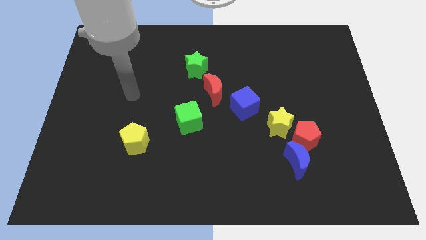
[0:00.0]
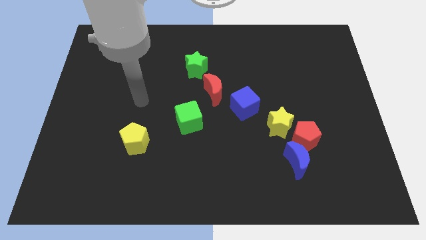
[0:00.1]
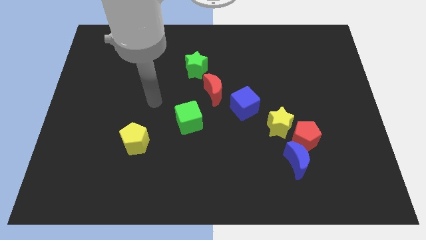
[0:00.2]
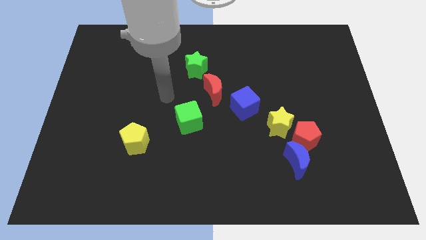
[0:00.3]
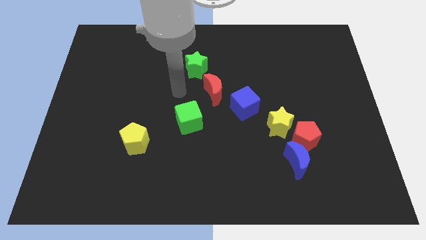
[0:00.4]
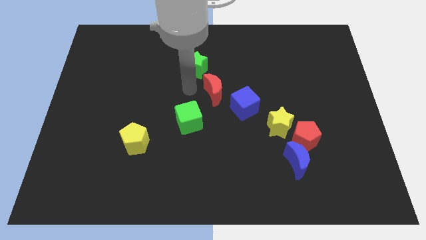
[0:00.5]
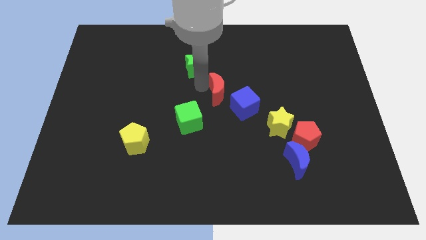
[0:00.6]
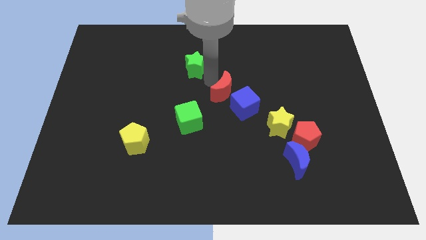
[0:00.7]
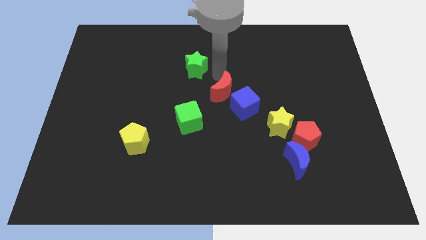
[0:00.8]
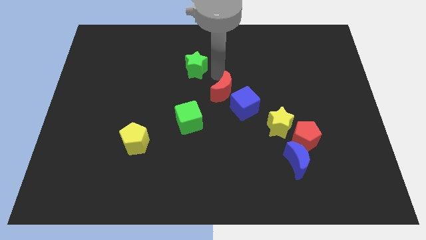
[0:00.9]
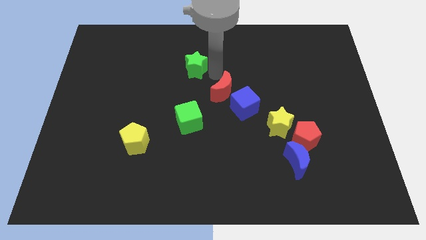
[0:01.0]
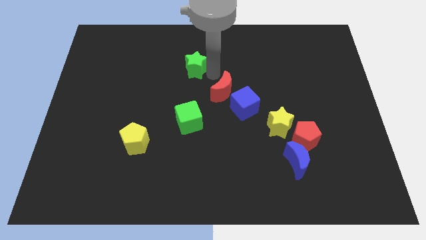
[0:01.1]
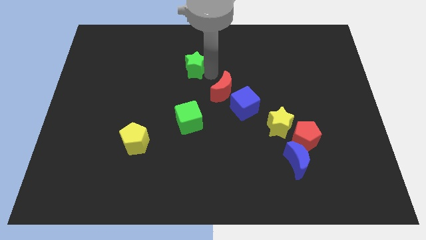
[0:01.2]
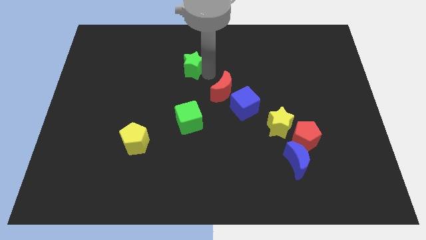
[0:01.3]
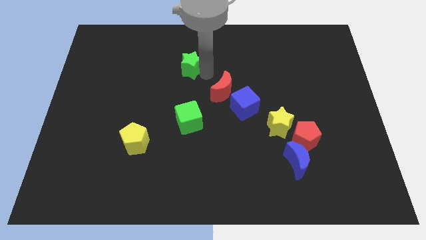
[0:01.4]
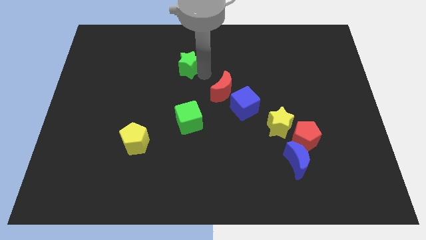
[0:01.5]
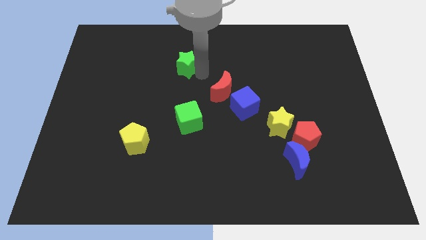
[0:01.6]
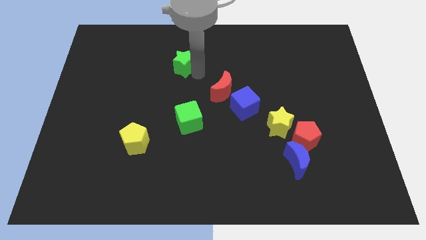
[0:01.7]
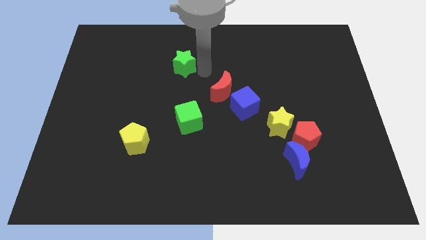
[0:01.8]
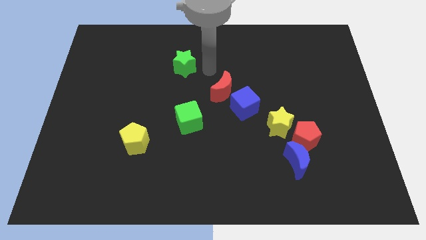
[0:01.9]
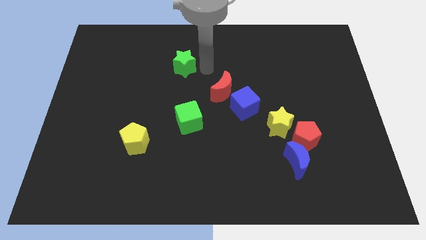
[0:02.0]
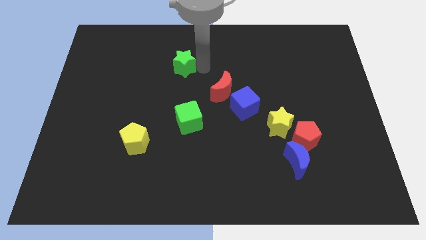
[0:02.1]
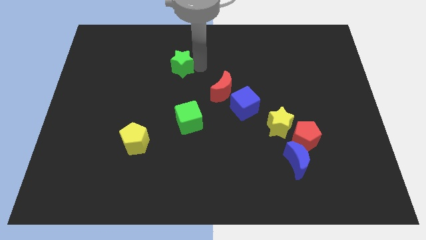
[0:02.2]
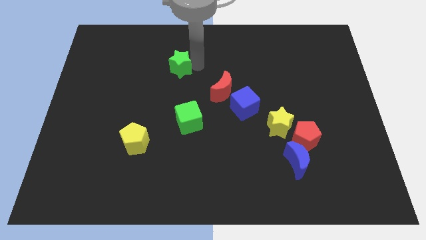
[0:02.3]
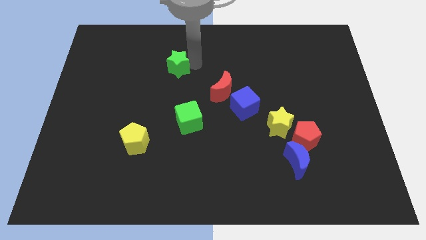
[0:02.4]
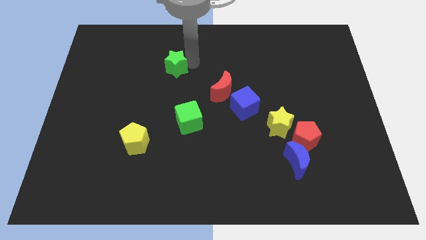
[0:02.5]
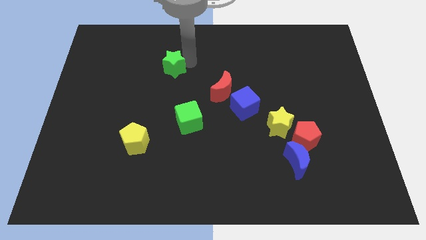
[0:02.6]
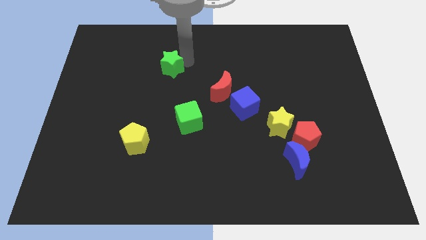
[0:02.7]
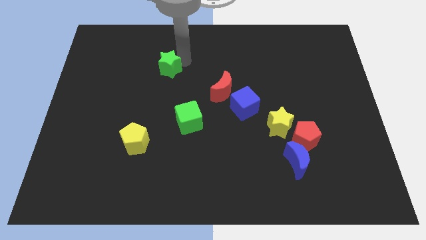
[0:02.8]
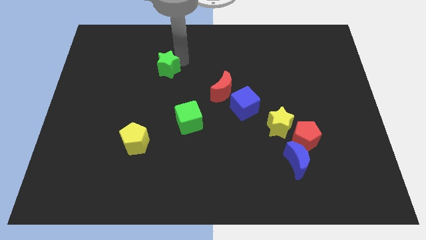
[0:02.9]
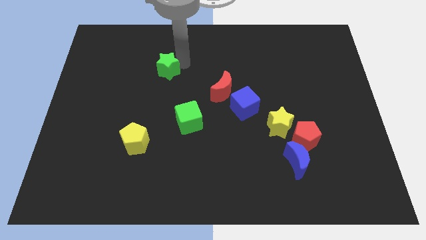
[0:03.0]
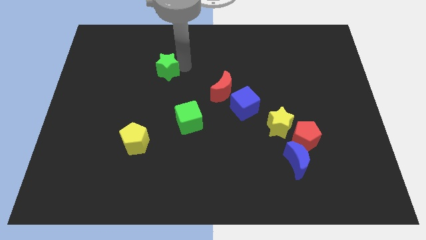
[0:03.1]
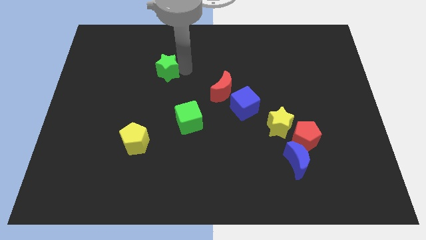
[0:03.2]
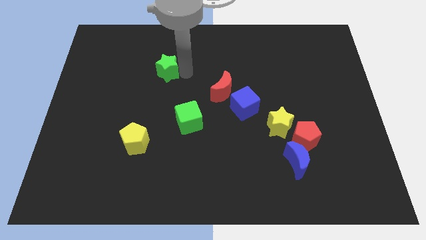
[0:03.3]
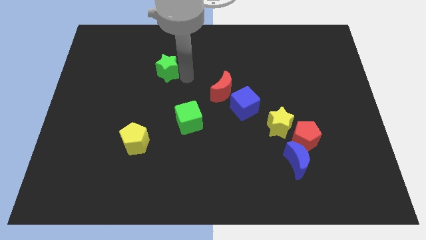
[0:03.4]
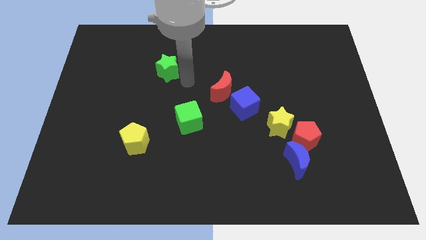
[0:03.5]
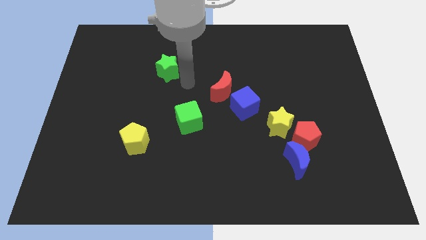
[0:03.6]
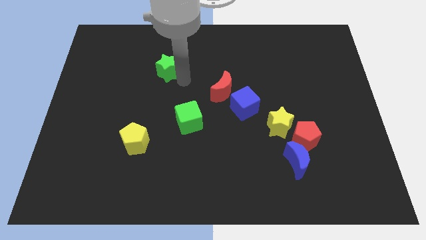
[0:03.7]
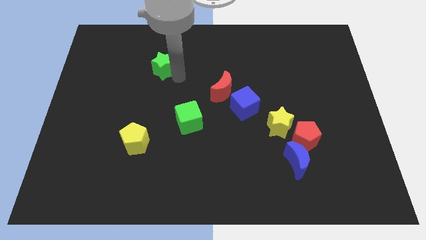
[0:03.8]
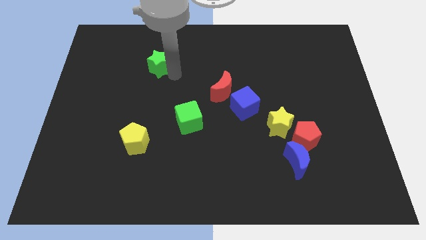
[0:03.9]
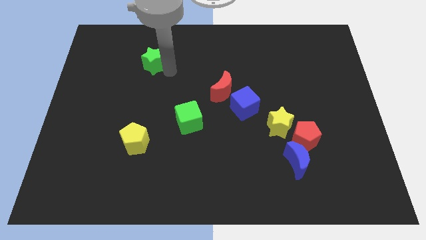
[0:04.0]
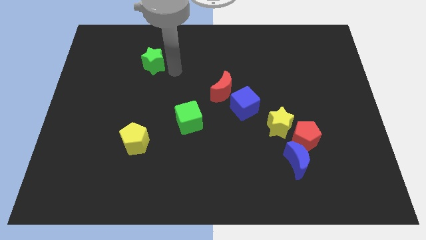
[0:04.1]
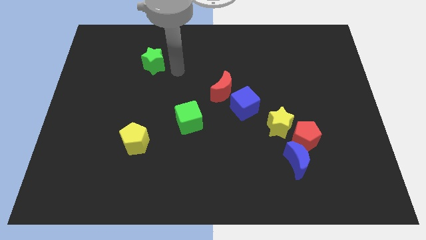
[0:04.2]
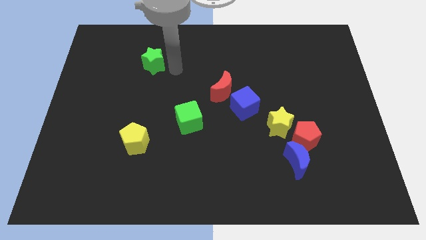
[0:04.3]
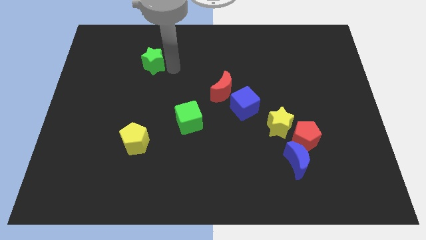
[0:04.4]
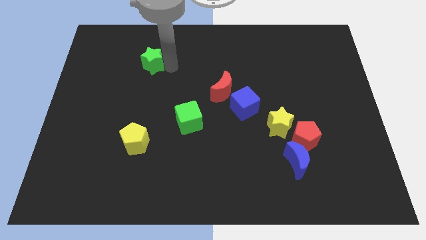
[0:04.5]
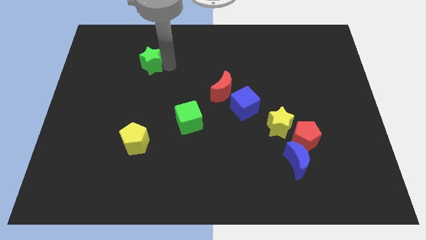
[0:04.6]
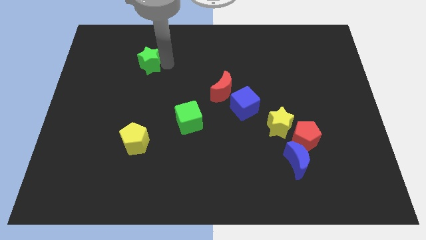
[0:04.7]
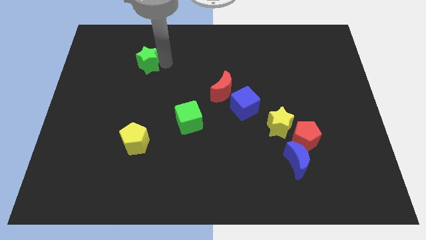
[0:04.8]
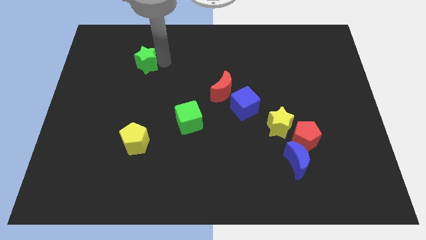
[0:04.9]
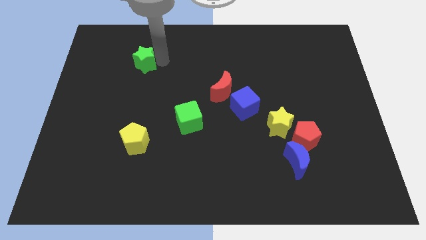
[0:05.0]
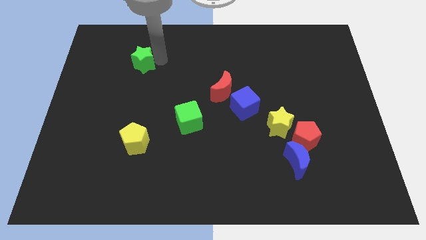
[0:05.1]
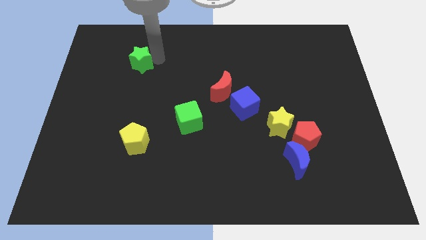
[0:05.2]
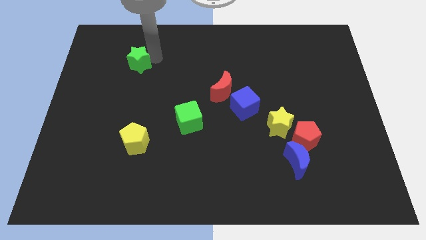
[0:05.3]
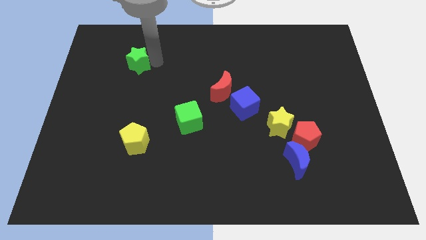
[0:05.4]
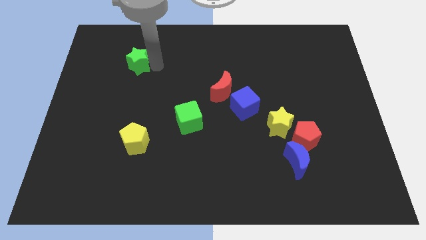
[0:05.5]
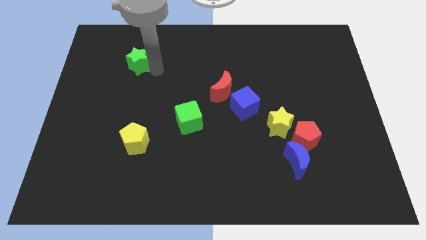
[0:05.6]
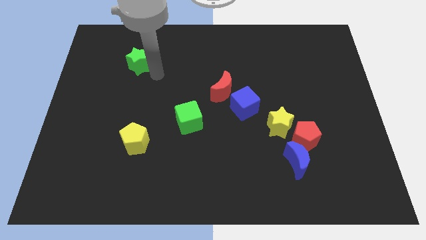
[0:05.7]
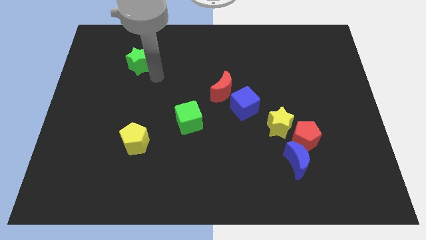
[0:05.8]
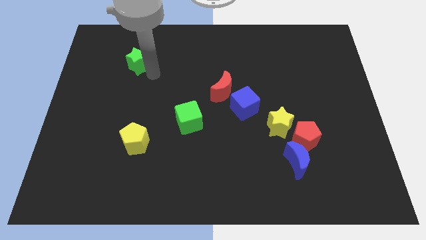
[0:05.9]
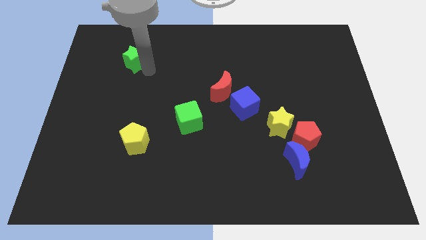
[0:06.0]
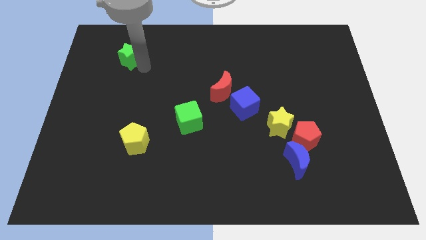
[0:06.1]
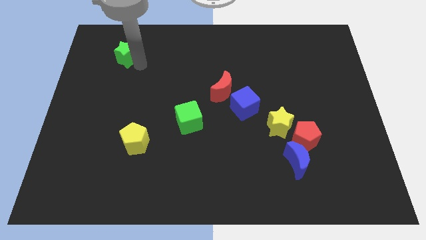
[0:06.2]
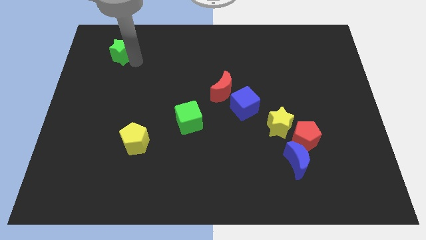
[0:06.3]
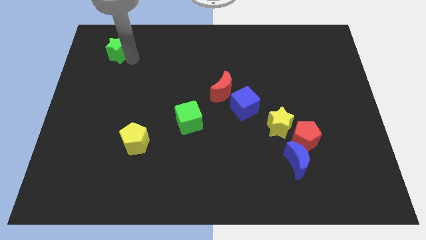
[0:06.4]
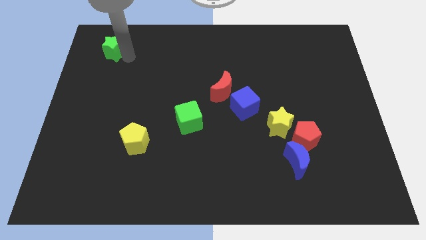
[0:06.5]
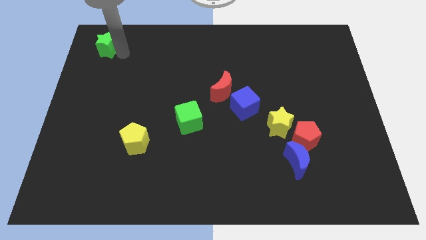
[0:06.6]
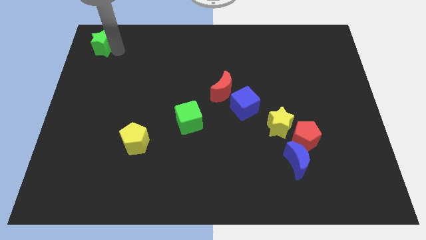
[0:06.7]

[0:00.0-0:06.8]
put the green star to the upper left corner
